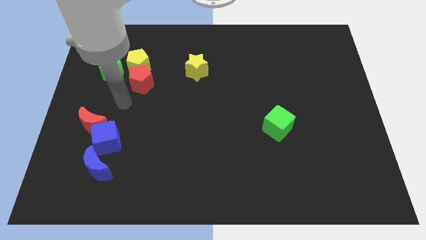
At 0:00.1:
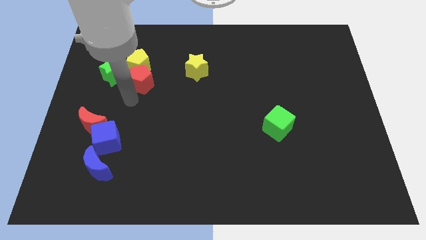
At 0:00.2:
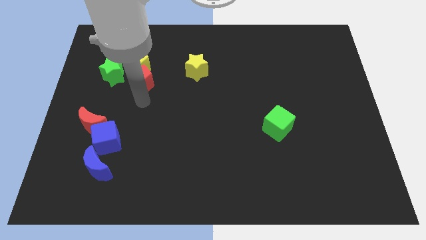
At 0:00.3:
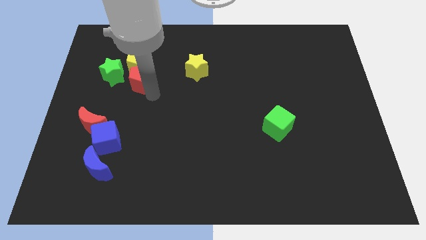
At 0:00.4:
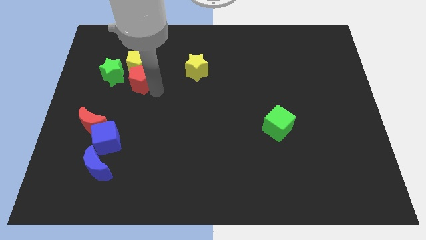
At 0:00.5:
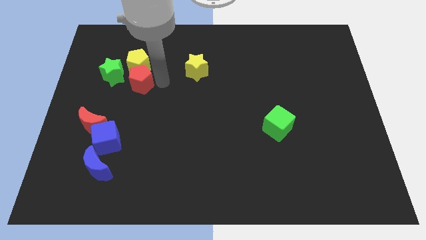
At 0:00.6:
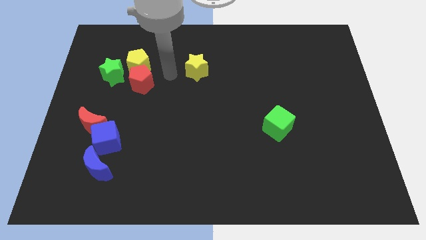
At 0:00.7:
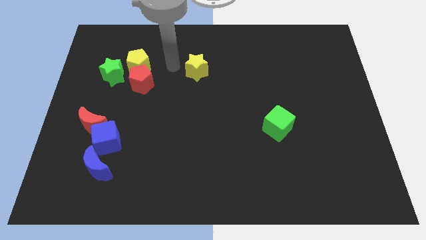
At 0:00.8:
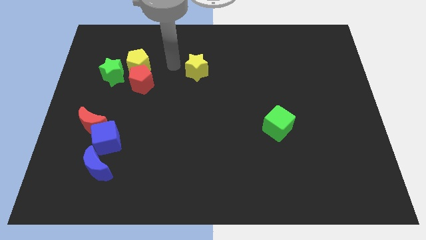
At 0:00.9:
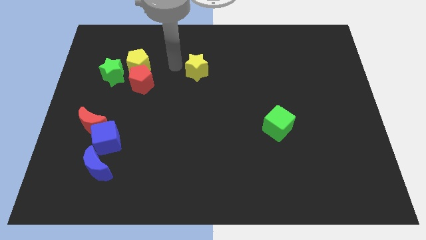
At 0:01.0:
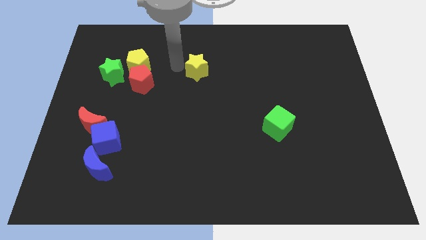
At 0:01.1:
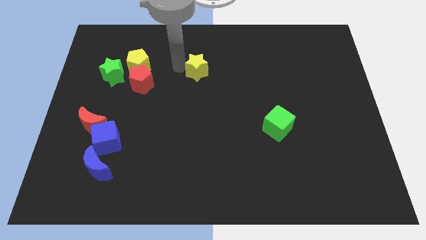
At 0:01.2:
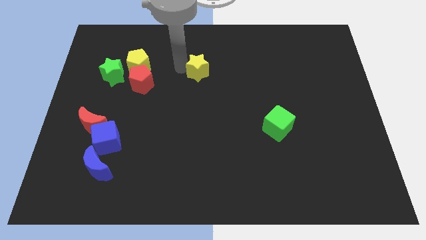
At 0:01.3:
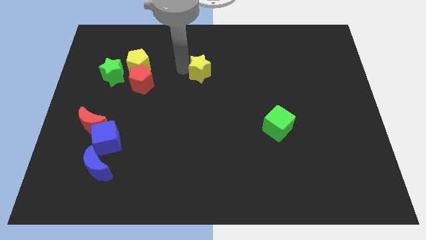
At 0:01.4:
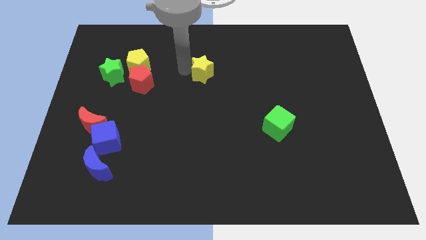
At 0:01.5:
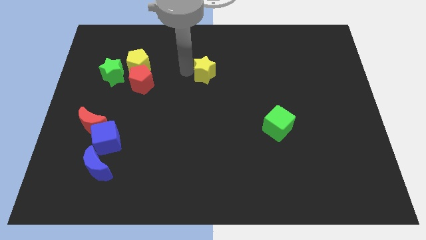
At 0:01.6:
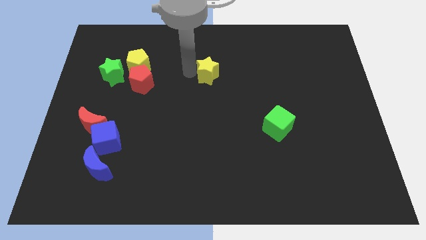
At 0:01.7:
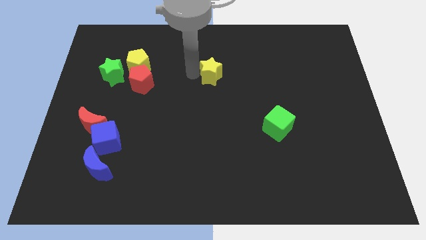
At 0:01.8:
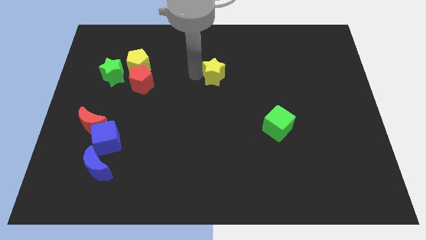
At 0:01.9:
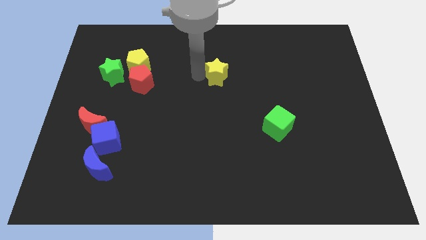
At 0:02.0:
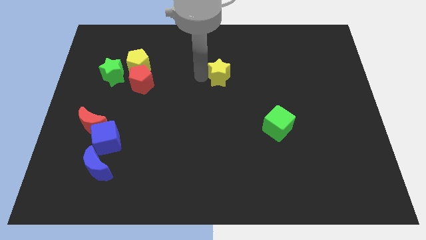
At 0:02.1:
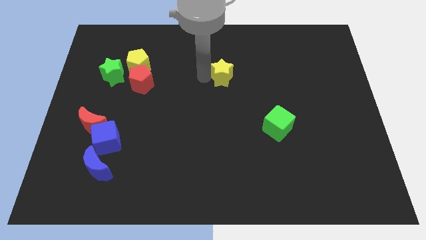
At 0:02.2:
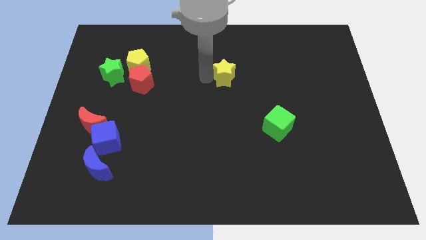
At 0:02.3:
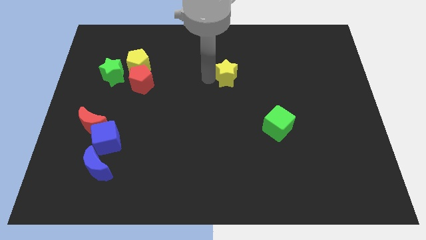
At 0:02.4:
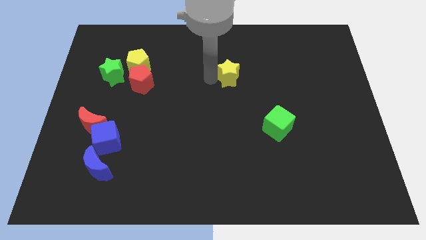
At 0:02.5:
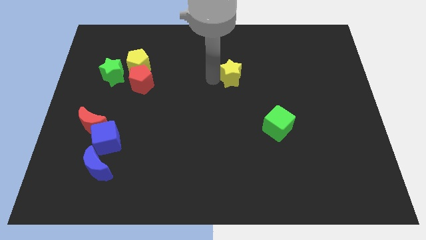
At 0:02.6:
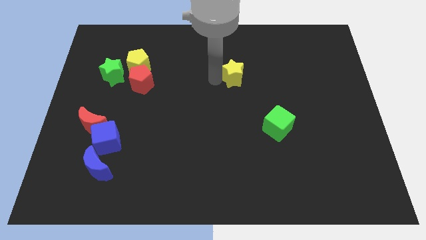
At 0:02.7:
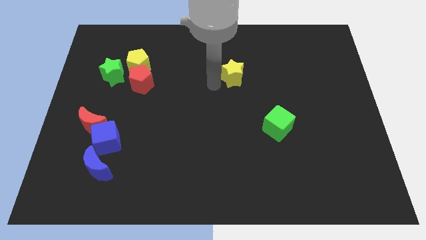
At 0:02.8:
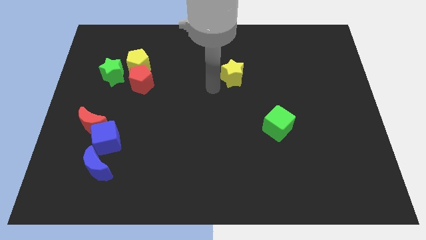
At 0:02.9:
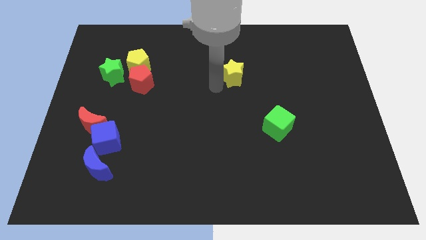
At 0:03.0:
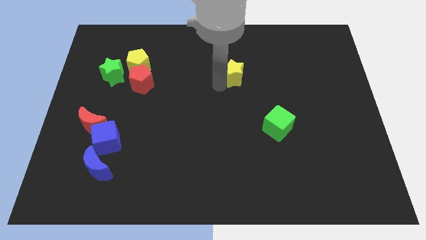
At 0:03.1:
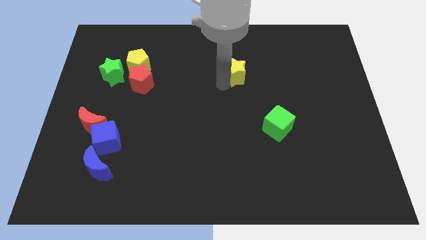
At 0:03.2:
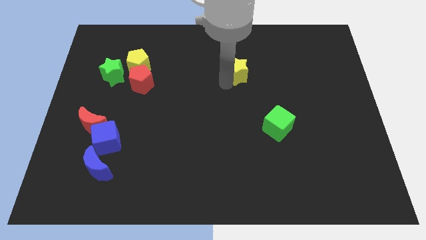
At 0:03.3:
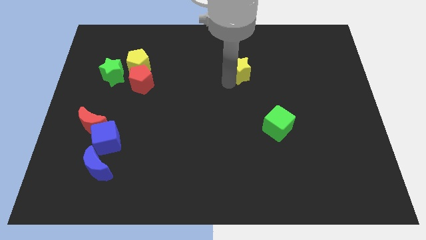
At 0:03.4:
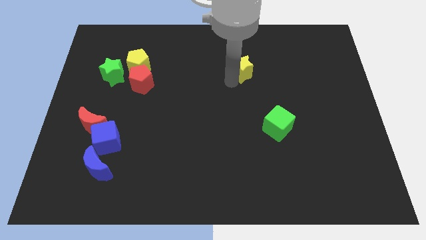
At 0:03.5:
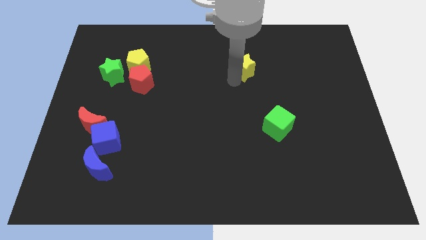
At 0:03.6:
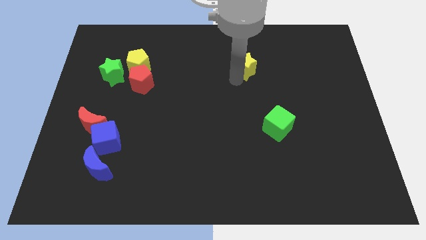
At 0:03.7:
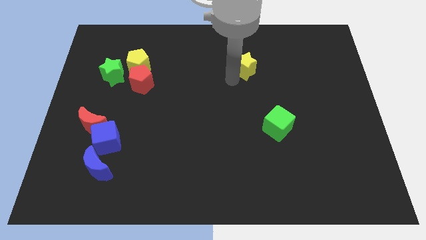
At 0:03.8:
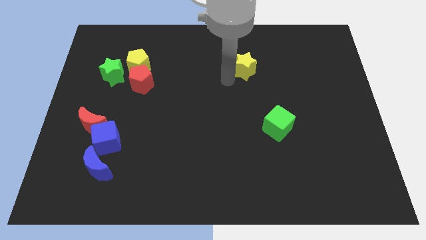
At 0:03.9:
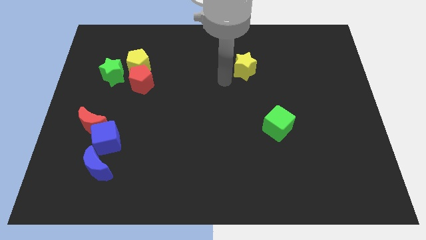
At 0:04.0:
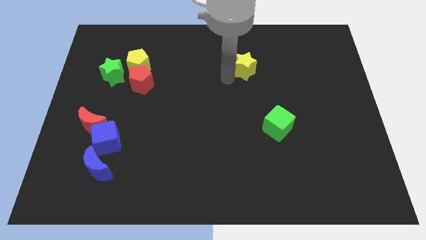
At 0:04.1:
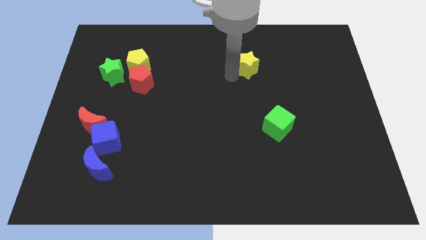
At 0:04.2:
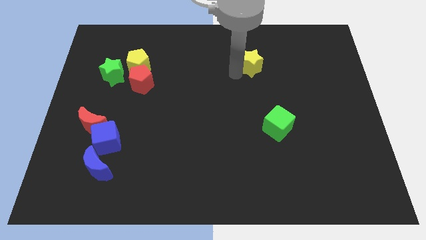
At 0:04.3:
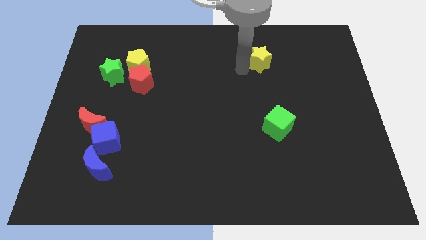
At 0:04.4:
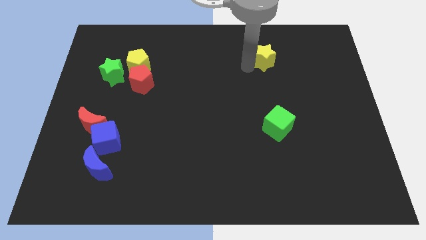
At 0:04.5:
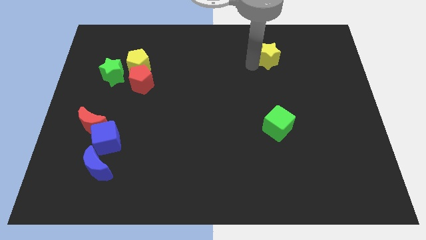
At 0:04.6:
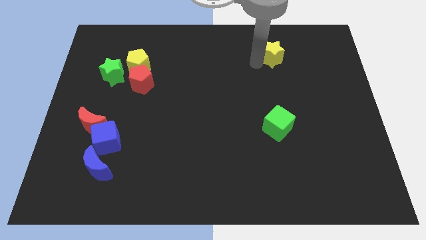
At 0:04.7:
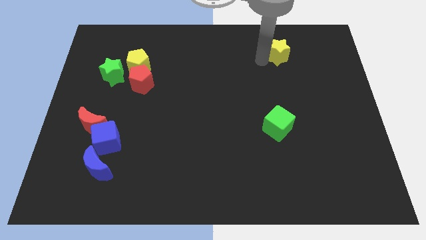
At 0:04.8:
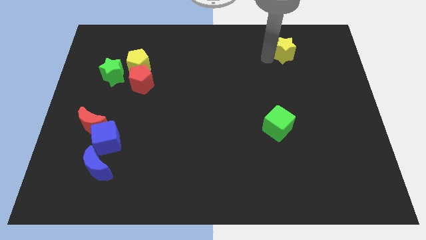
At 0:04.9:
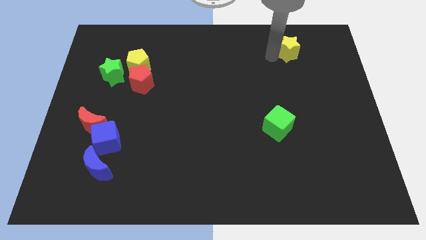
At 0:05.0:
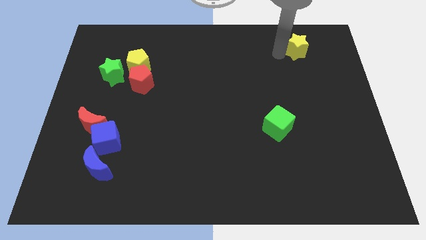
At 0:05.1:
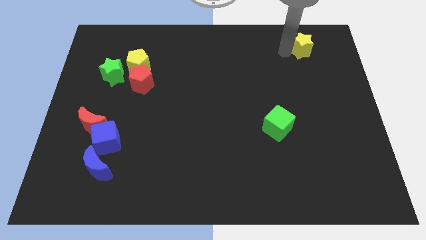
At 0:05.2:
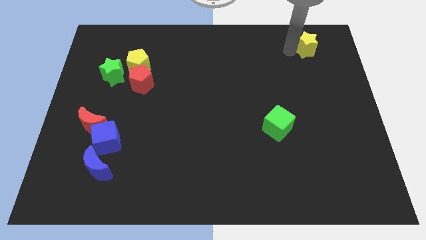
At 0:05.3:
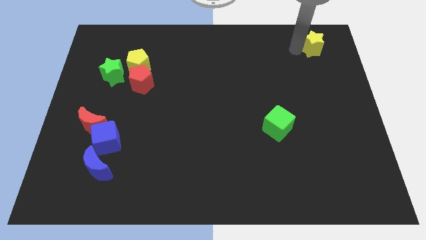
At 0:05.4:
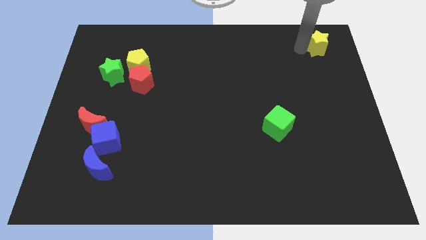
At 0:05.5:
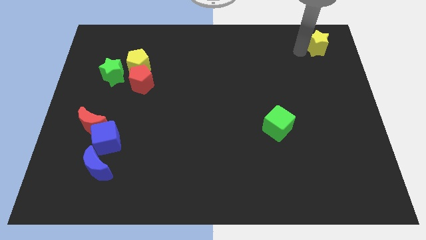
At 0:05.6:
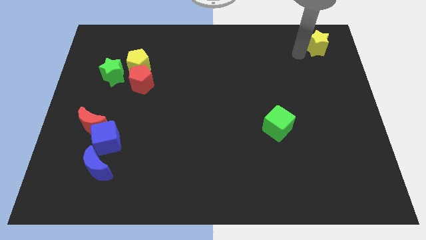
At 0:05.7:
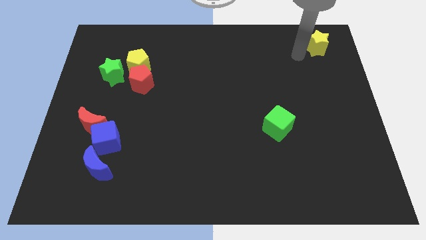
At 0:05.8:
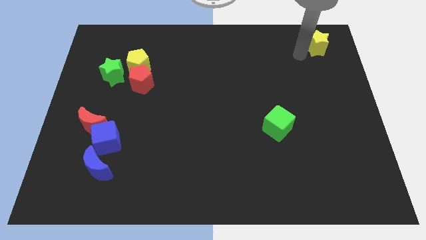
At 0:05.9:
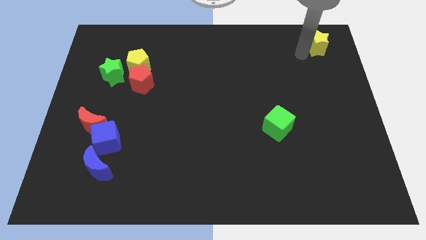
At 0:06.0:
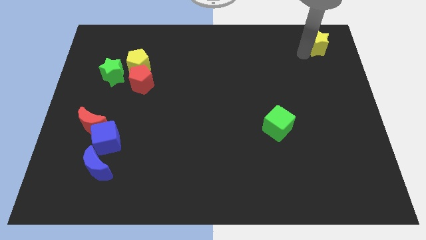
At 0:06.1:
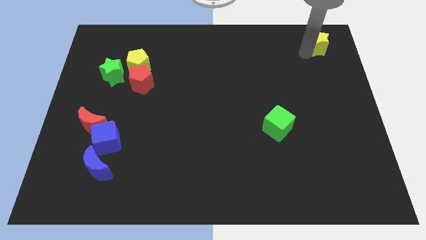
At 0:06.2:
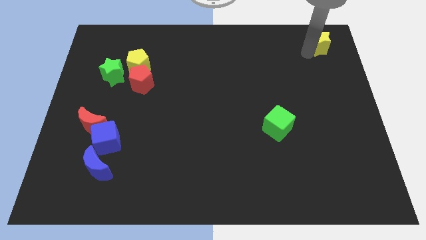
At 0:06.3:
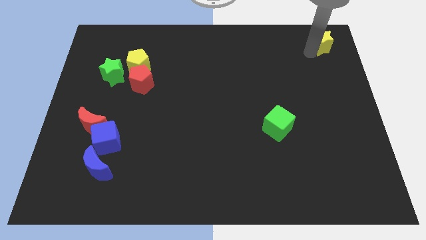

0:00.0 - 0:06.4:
put the yellow star to the top right of the board
